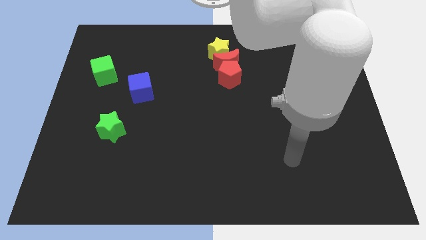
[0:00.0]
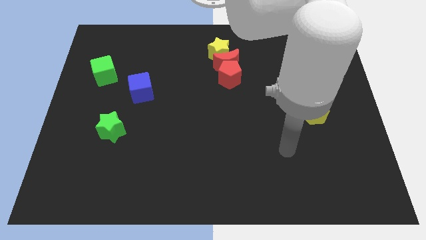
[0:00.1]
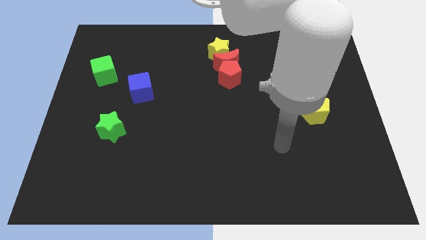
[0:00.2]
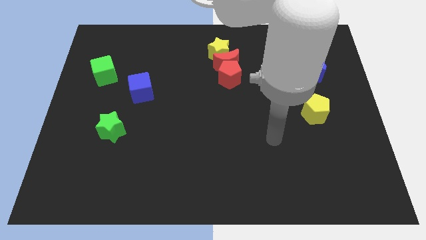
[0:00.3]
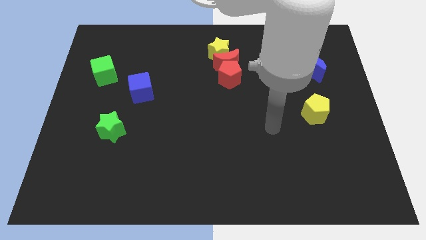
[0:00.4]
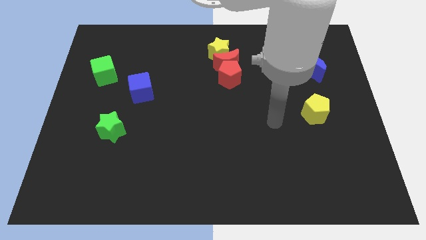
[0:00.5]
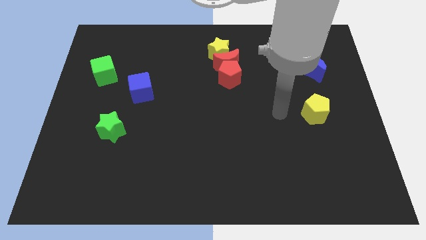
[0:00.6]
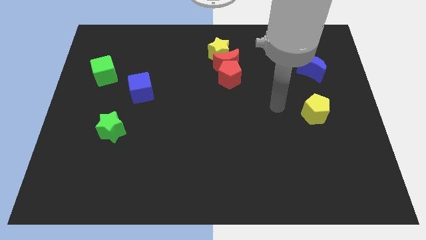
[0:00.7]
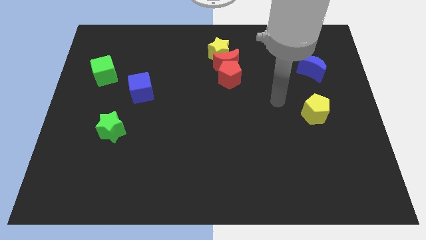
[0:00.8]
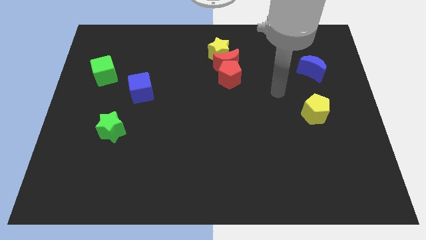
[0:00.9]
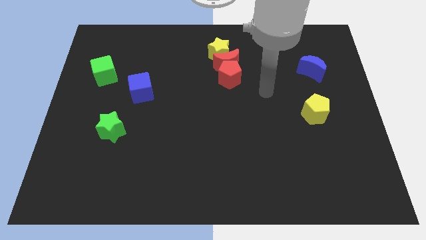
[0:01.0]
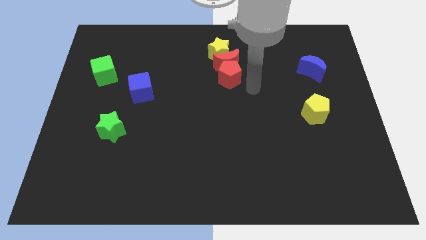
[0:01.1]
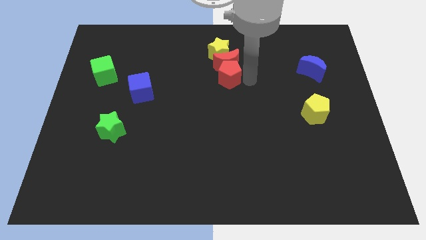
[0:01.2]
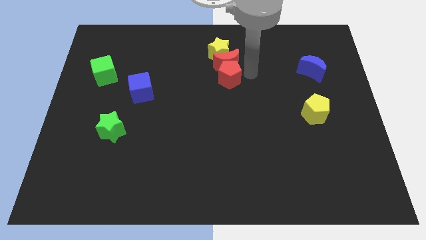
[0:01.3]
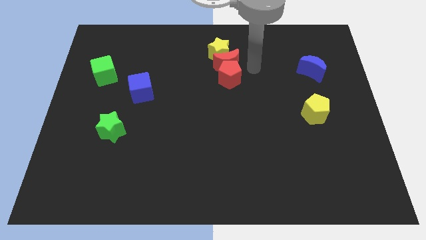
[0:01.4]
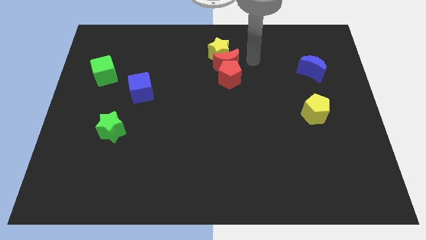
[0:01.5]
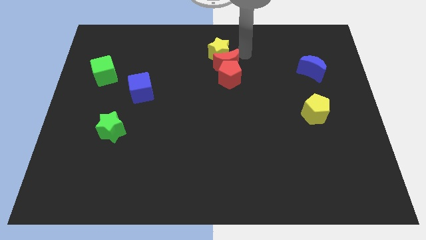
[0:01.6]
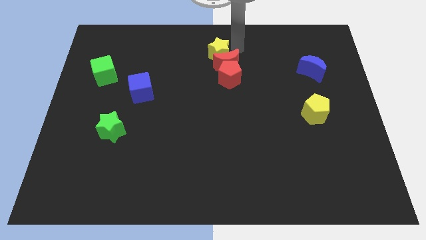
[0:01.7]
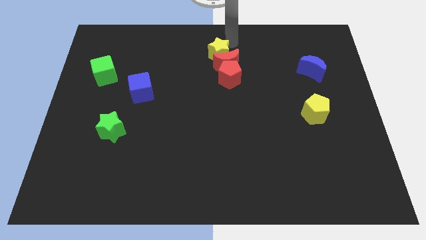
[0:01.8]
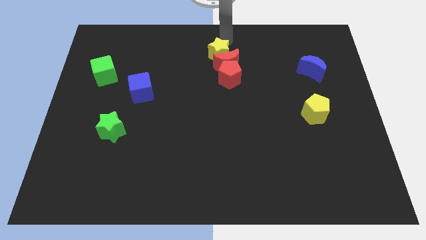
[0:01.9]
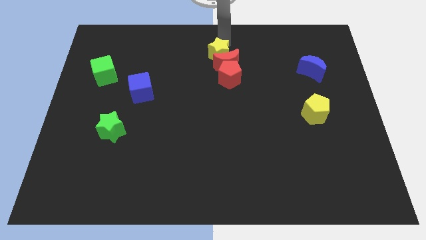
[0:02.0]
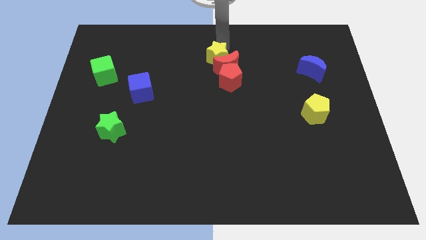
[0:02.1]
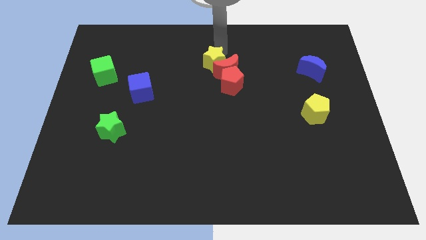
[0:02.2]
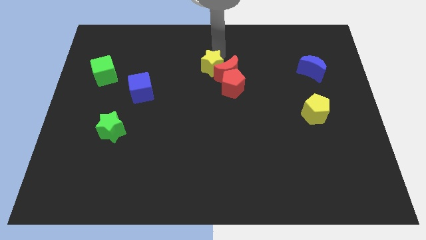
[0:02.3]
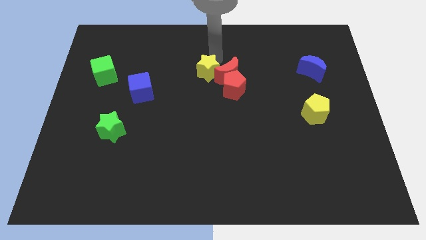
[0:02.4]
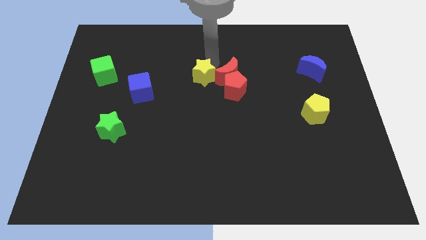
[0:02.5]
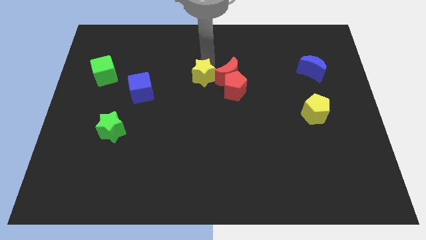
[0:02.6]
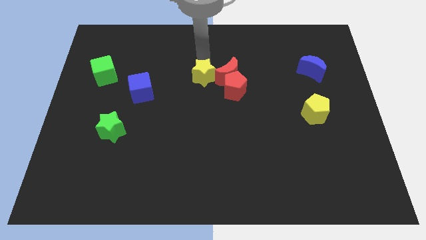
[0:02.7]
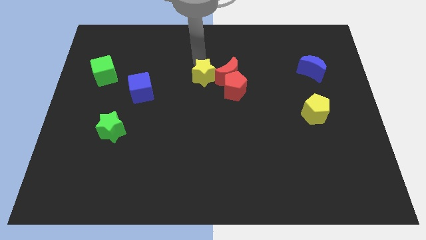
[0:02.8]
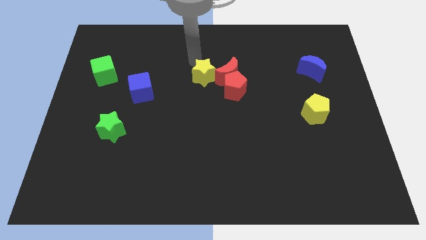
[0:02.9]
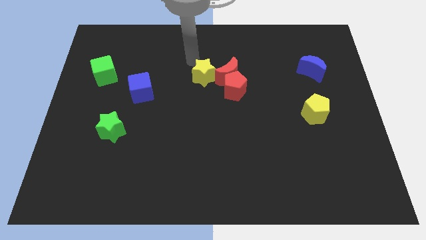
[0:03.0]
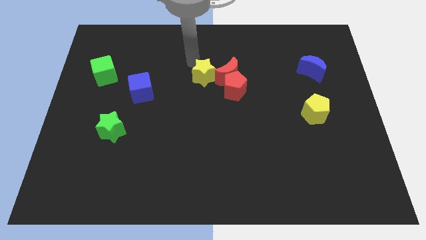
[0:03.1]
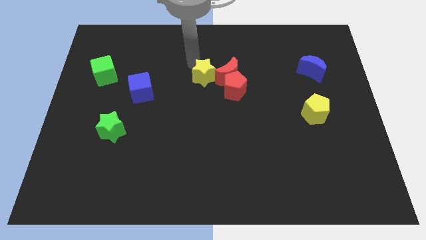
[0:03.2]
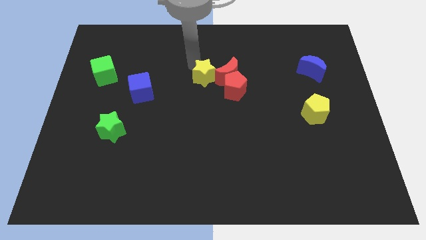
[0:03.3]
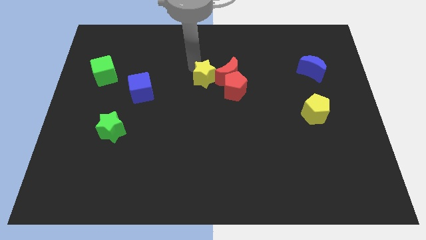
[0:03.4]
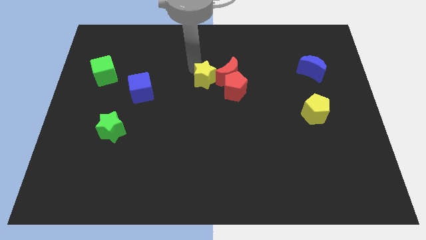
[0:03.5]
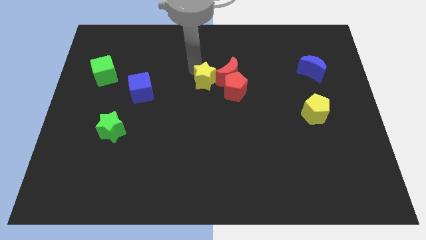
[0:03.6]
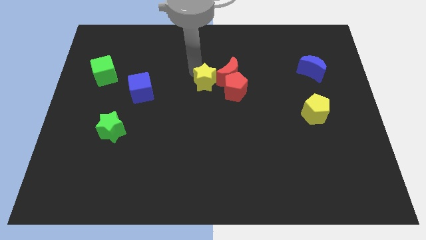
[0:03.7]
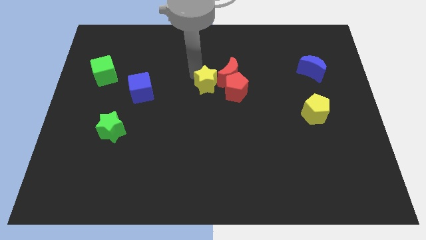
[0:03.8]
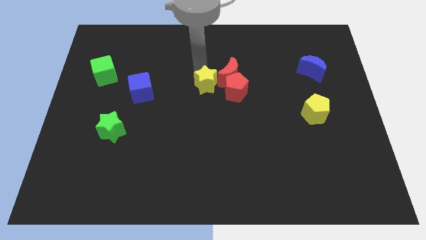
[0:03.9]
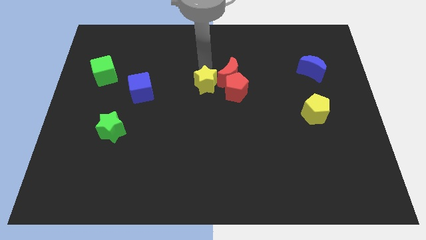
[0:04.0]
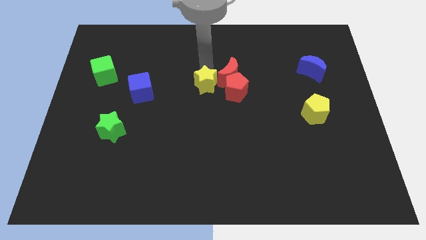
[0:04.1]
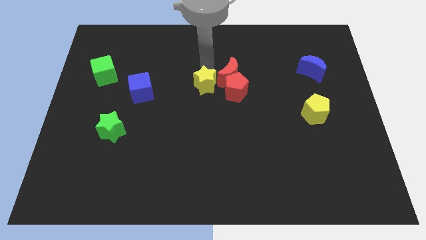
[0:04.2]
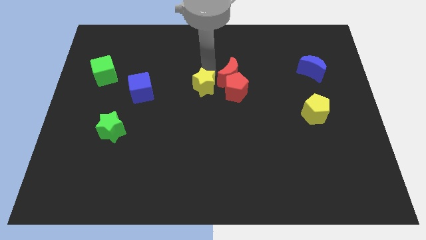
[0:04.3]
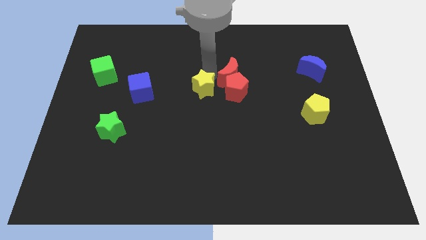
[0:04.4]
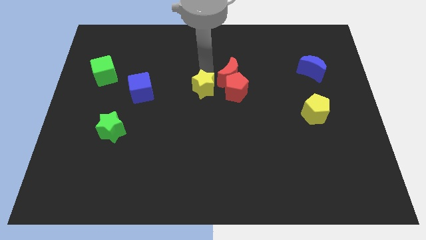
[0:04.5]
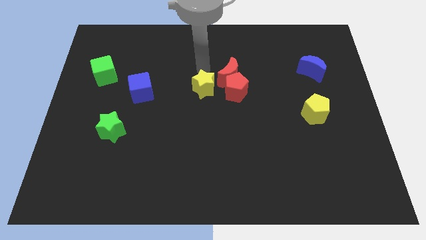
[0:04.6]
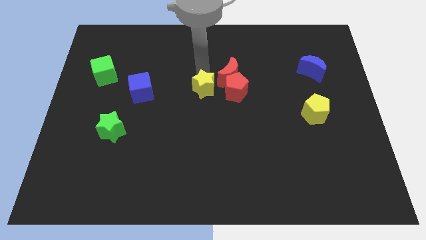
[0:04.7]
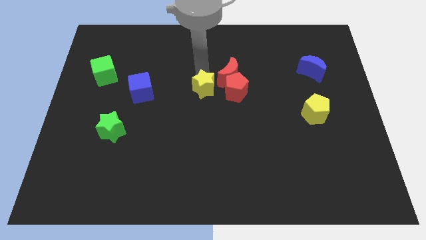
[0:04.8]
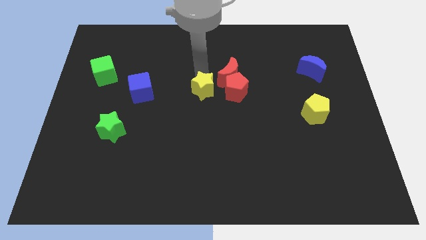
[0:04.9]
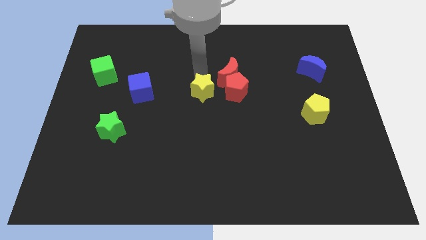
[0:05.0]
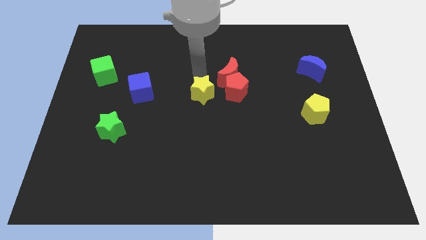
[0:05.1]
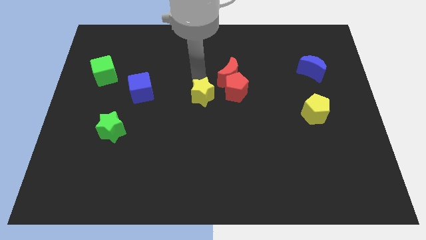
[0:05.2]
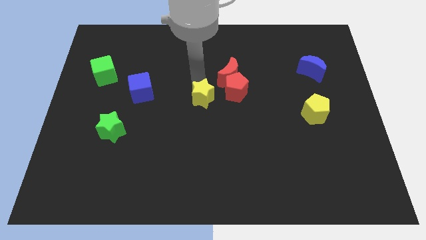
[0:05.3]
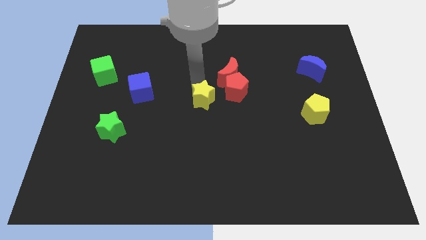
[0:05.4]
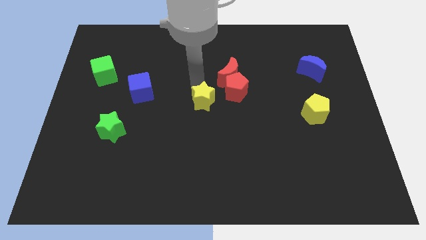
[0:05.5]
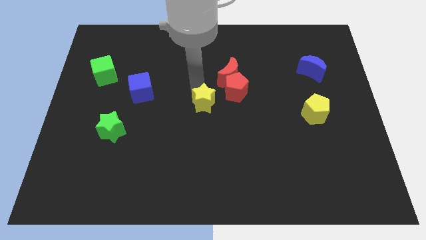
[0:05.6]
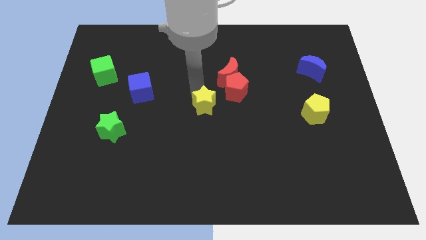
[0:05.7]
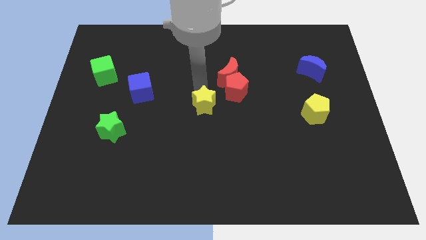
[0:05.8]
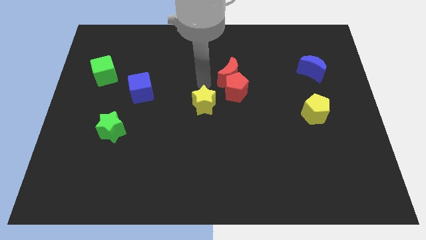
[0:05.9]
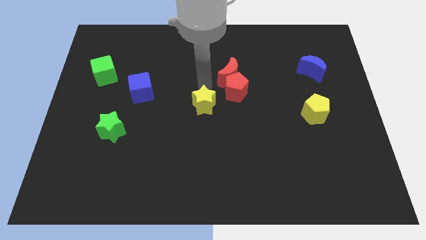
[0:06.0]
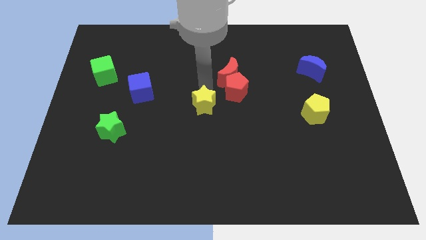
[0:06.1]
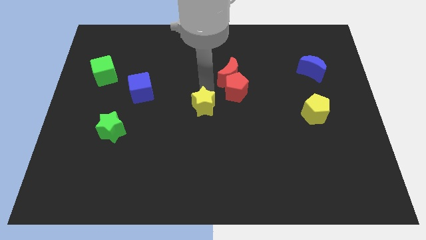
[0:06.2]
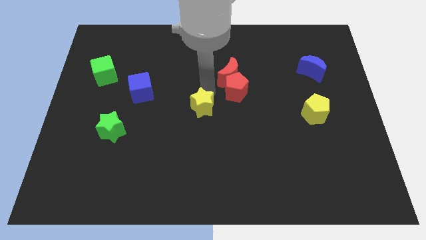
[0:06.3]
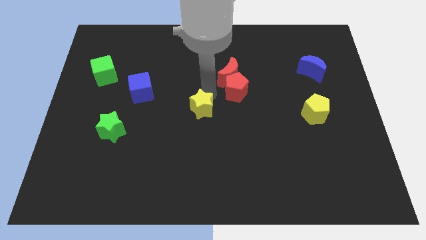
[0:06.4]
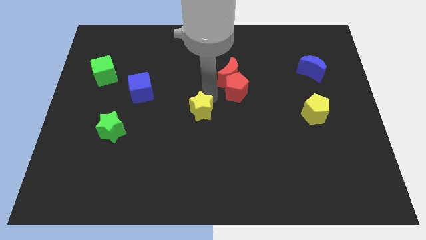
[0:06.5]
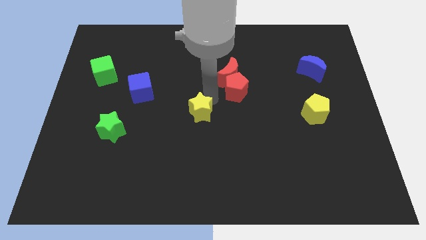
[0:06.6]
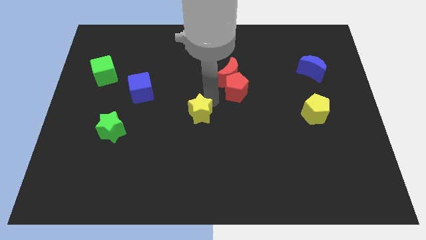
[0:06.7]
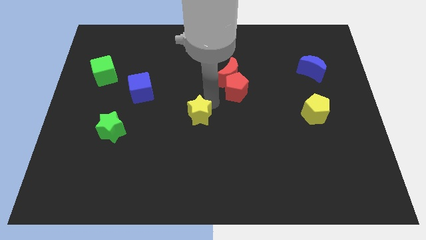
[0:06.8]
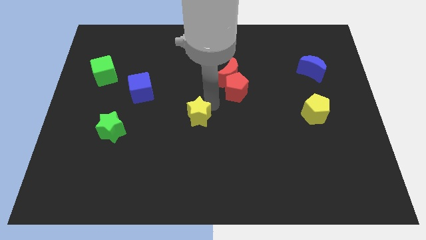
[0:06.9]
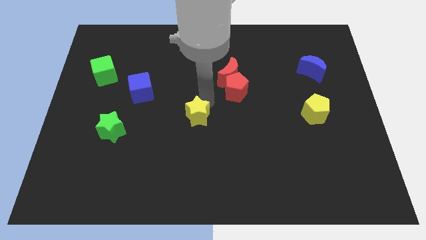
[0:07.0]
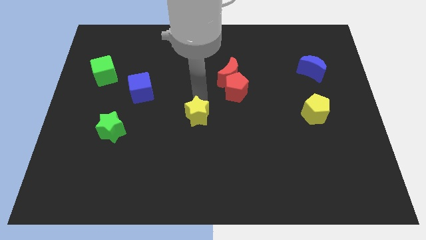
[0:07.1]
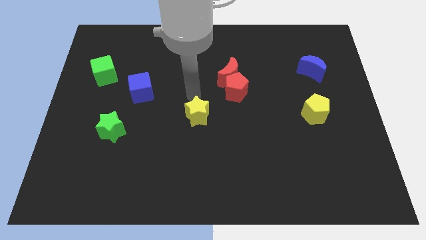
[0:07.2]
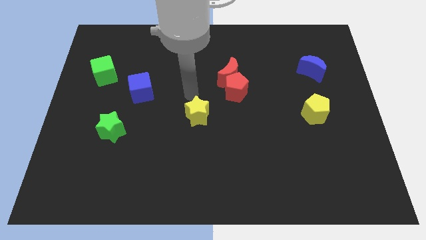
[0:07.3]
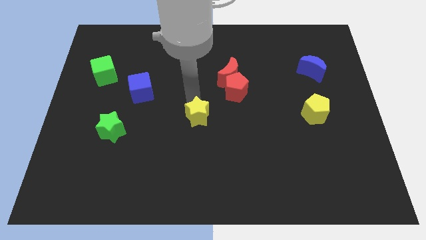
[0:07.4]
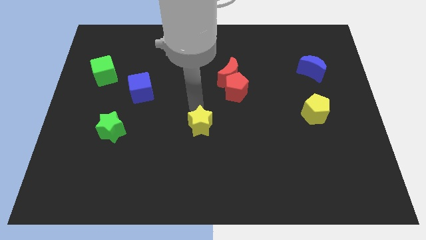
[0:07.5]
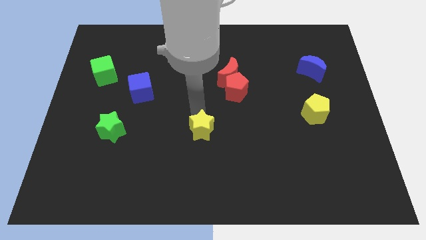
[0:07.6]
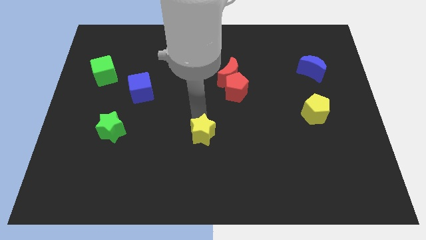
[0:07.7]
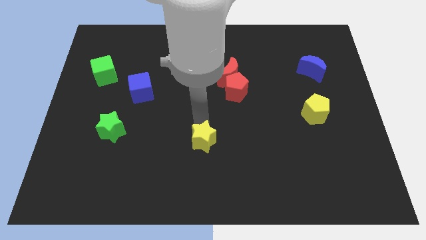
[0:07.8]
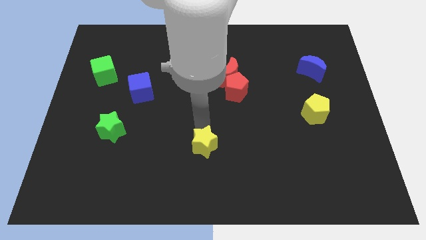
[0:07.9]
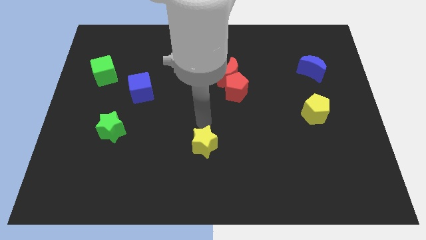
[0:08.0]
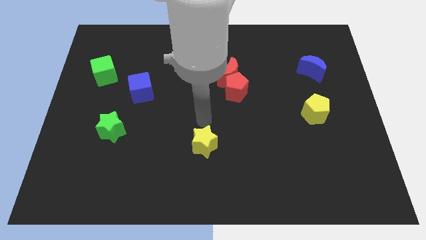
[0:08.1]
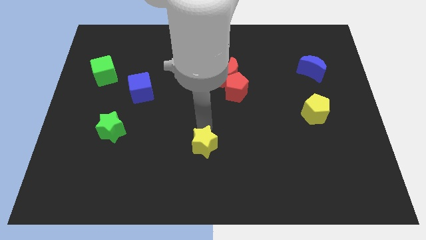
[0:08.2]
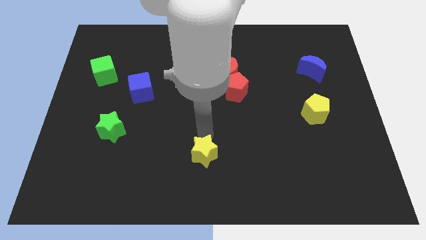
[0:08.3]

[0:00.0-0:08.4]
slide the yellow star to the bottom
